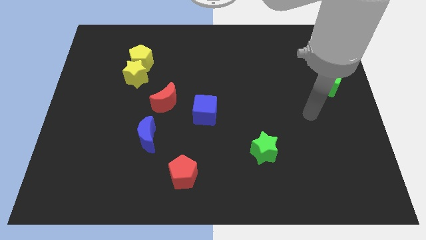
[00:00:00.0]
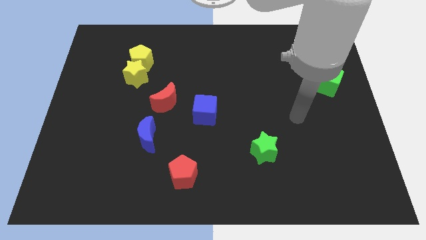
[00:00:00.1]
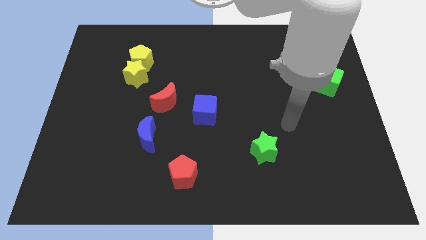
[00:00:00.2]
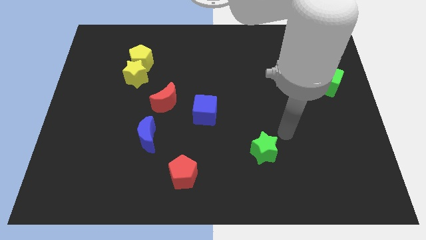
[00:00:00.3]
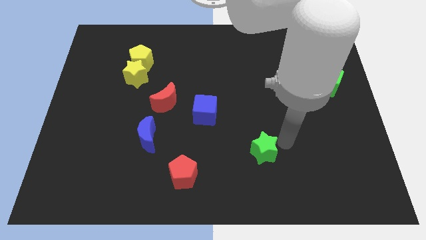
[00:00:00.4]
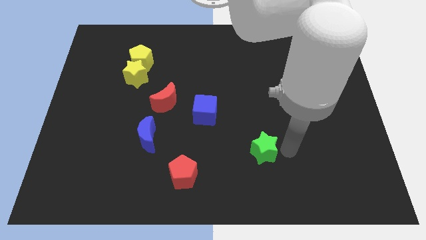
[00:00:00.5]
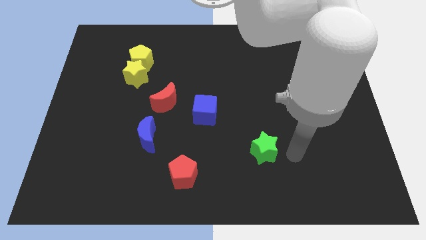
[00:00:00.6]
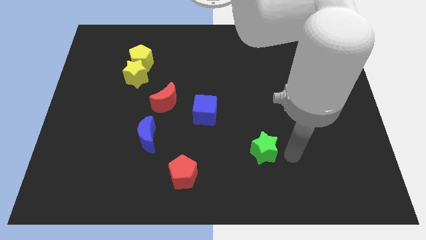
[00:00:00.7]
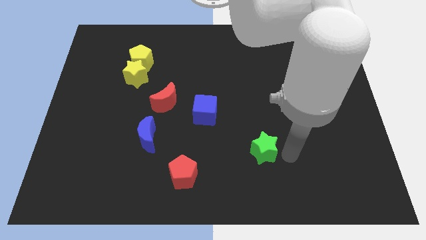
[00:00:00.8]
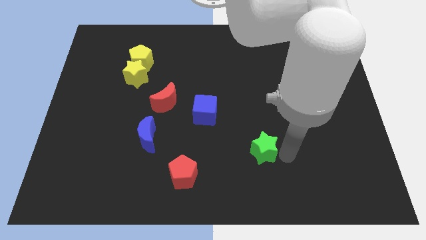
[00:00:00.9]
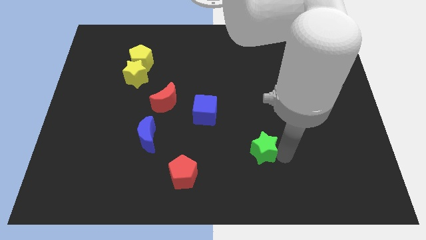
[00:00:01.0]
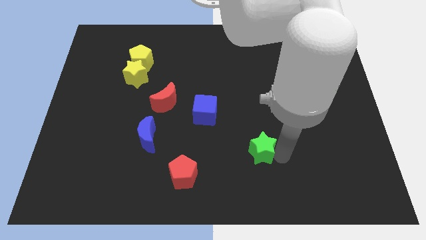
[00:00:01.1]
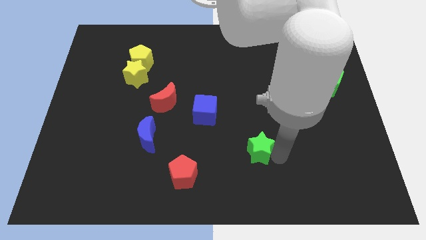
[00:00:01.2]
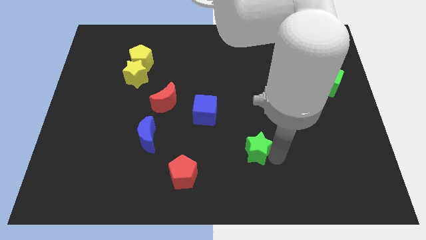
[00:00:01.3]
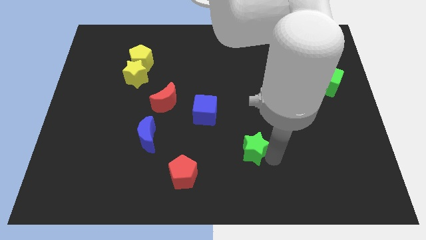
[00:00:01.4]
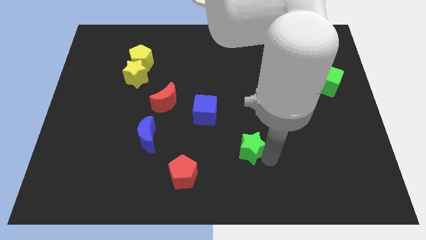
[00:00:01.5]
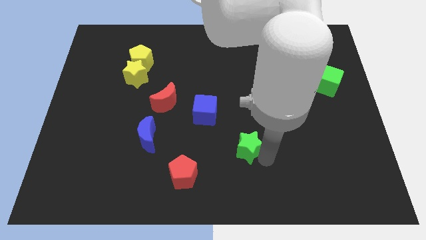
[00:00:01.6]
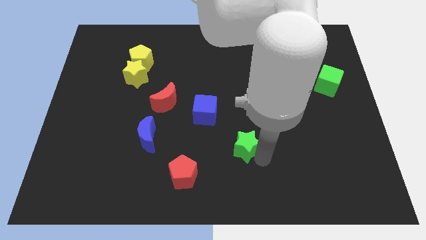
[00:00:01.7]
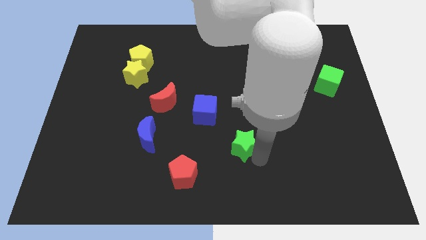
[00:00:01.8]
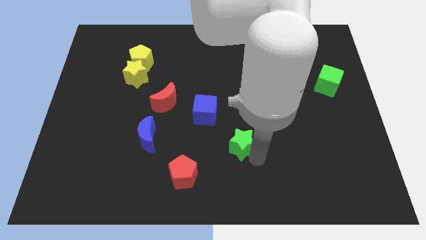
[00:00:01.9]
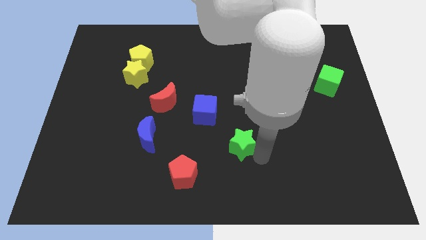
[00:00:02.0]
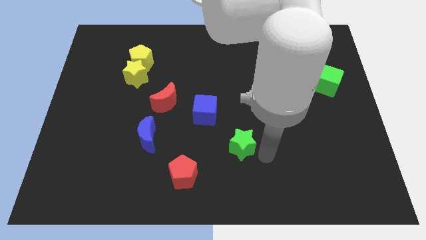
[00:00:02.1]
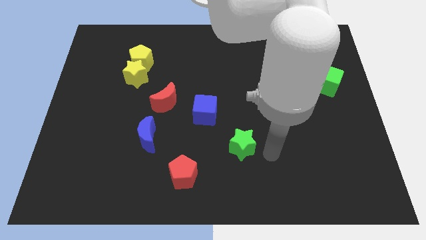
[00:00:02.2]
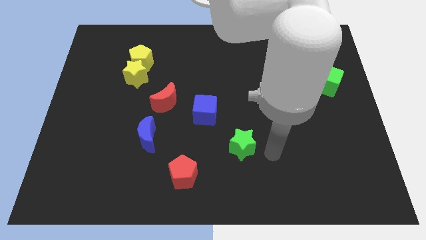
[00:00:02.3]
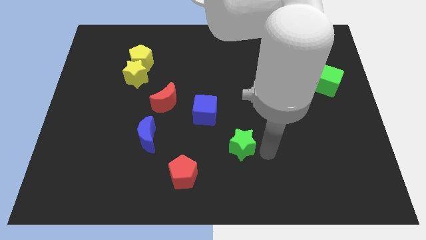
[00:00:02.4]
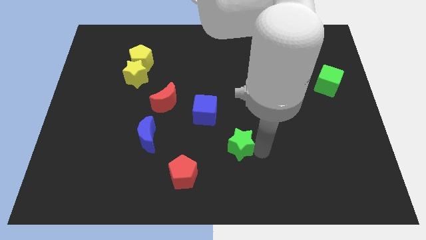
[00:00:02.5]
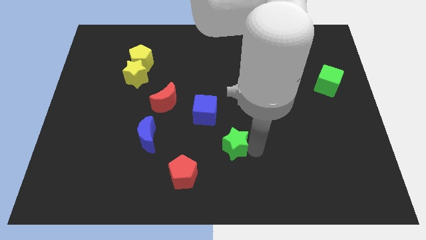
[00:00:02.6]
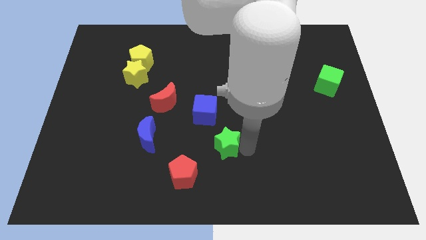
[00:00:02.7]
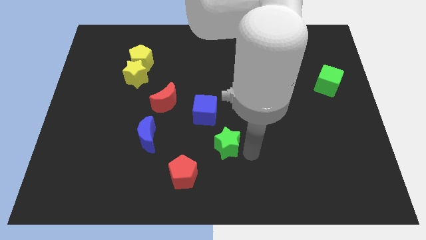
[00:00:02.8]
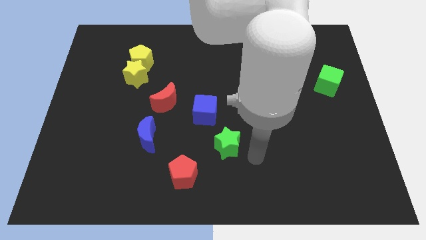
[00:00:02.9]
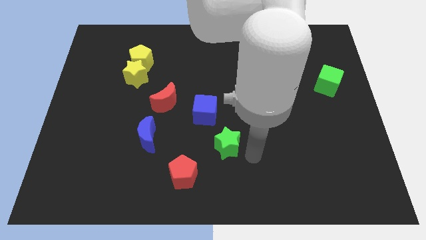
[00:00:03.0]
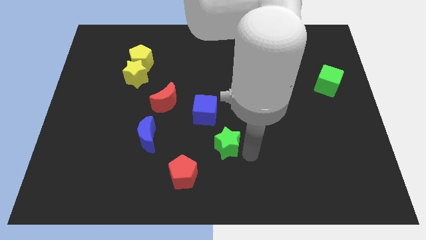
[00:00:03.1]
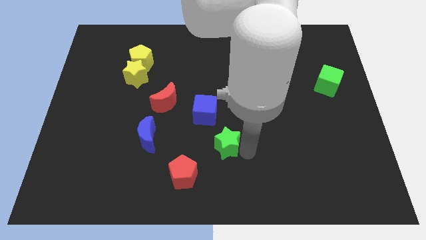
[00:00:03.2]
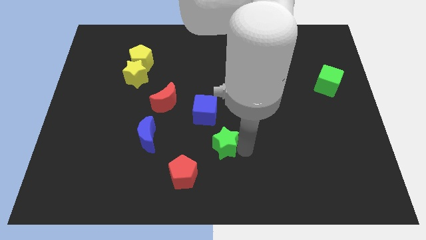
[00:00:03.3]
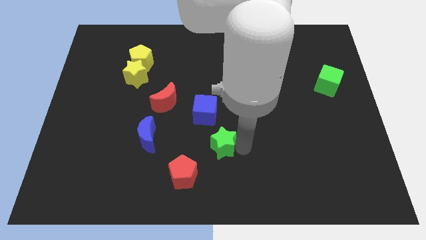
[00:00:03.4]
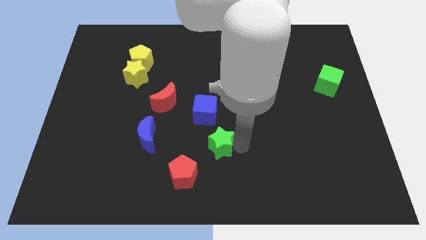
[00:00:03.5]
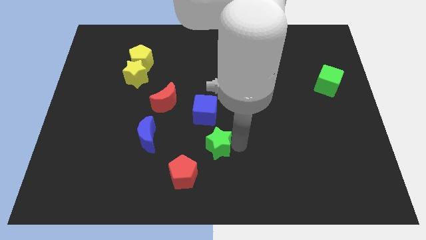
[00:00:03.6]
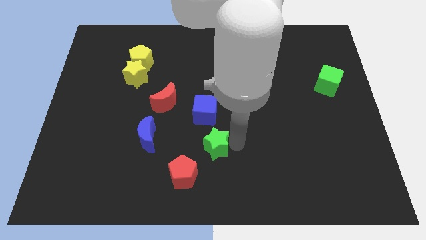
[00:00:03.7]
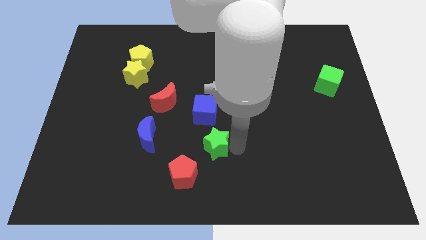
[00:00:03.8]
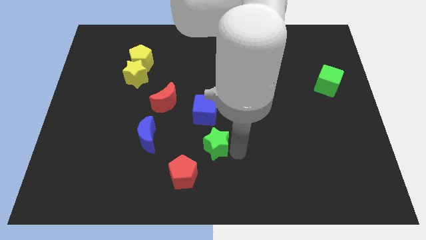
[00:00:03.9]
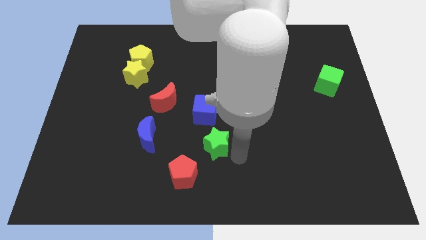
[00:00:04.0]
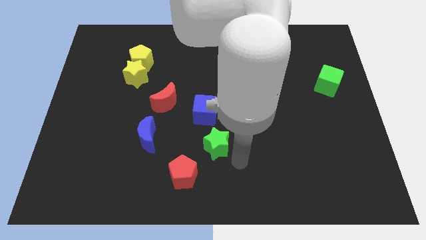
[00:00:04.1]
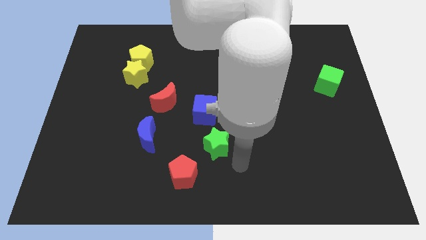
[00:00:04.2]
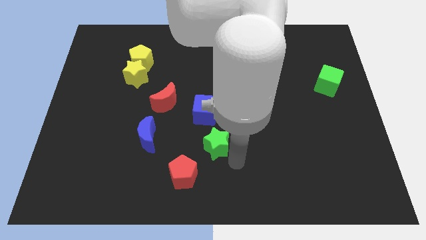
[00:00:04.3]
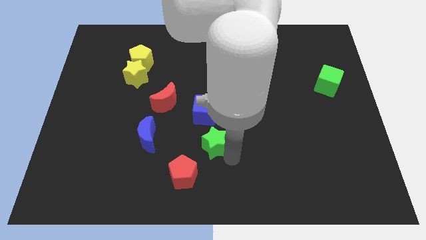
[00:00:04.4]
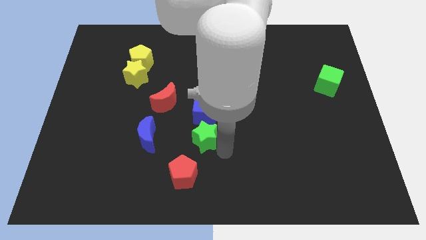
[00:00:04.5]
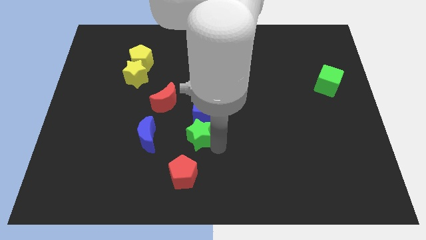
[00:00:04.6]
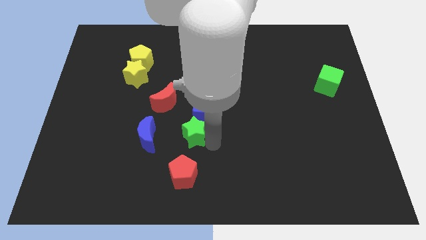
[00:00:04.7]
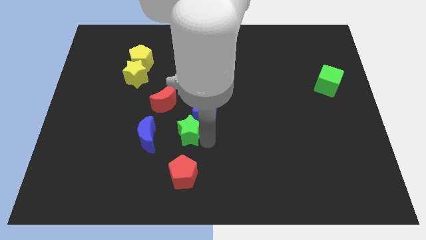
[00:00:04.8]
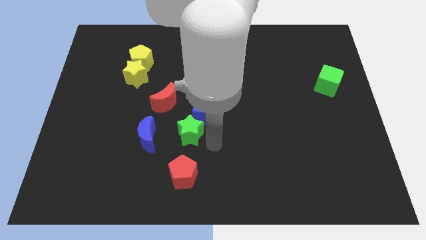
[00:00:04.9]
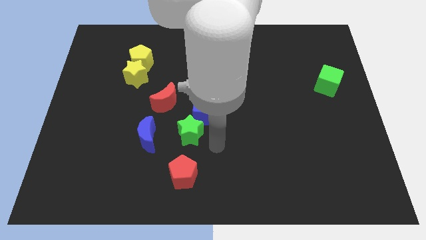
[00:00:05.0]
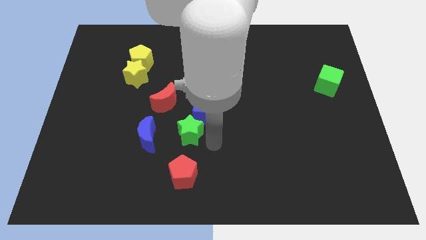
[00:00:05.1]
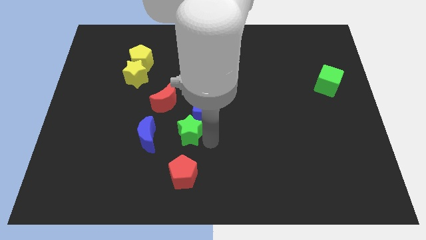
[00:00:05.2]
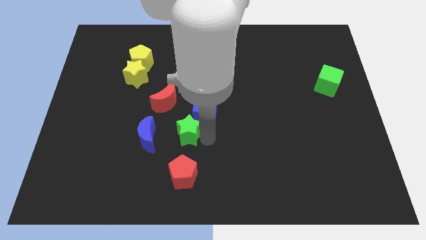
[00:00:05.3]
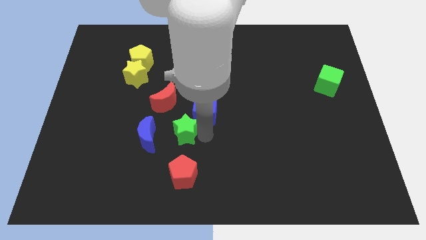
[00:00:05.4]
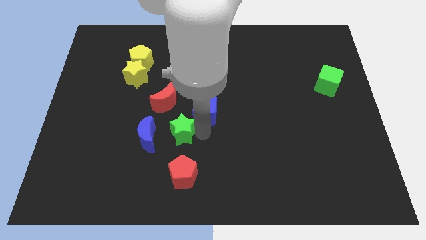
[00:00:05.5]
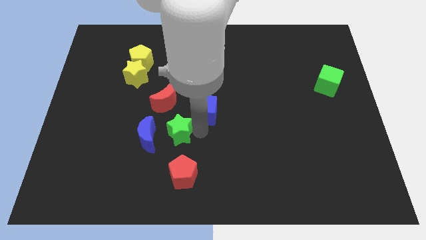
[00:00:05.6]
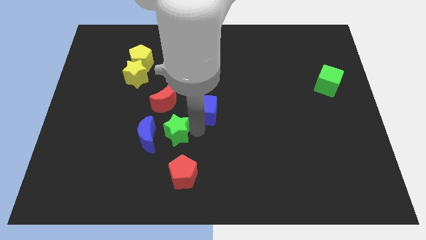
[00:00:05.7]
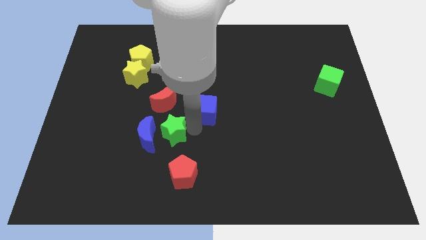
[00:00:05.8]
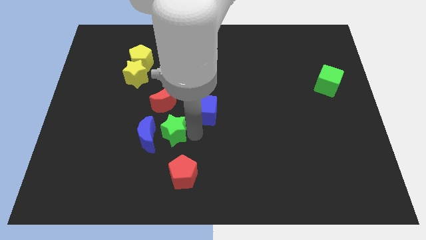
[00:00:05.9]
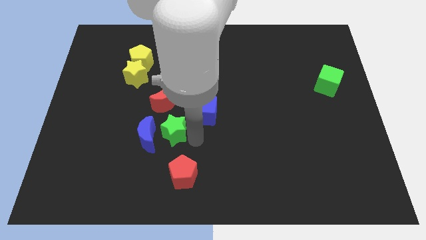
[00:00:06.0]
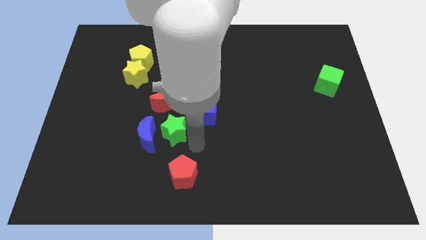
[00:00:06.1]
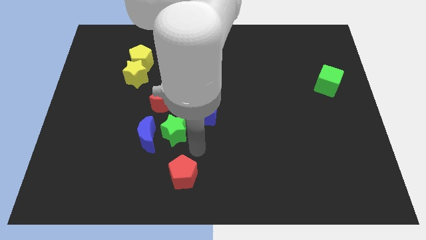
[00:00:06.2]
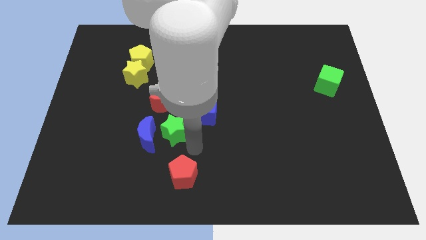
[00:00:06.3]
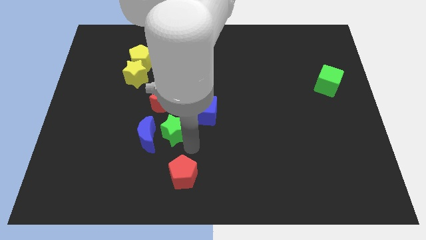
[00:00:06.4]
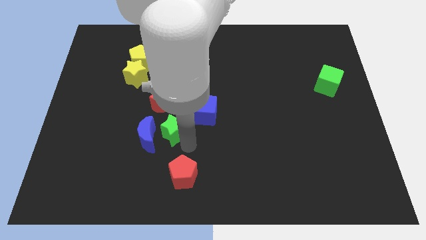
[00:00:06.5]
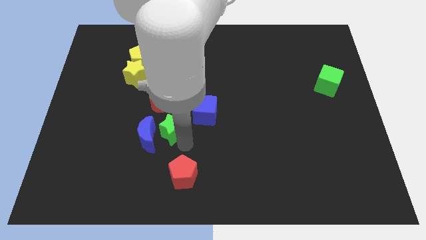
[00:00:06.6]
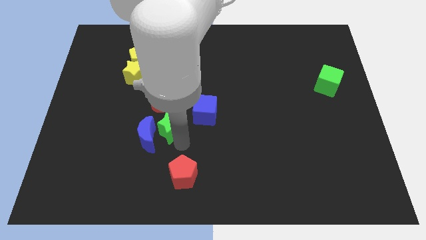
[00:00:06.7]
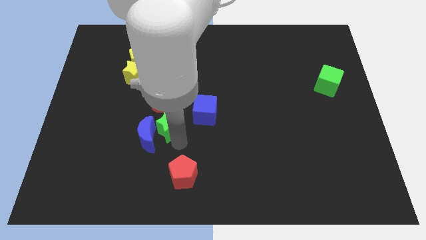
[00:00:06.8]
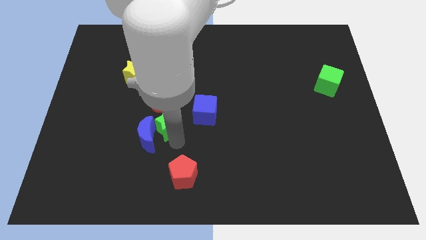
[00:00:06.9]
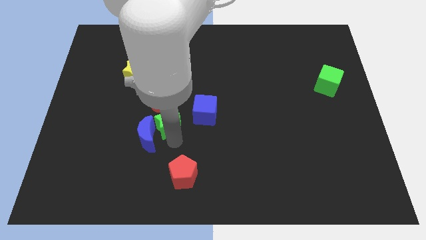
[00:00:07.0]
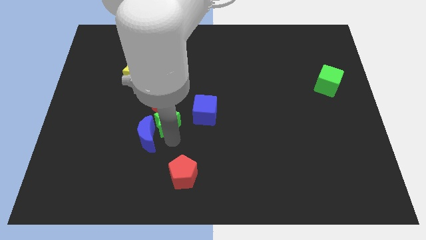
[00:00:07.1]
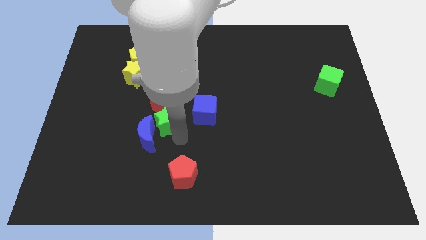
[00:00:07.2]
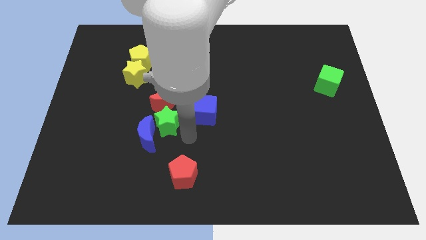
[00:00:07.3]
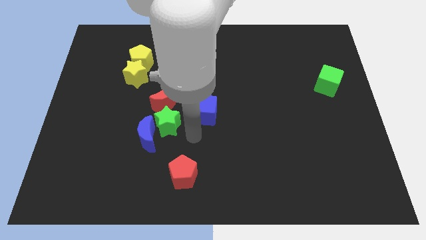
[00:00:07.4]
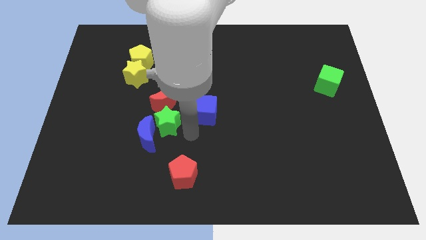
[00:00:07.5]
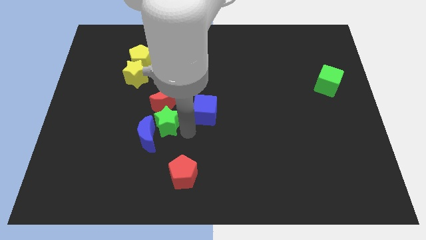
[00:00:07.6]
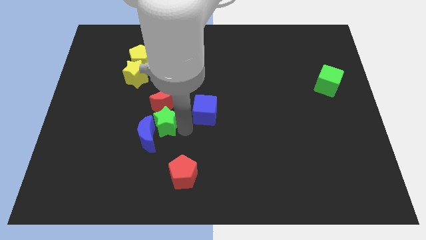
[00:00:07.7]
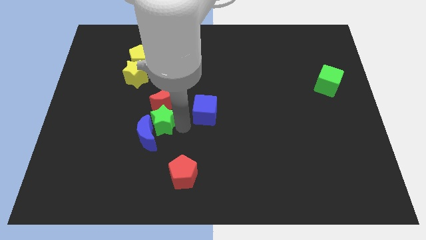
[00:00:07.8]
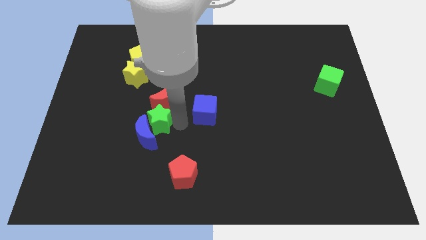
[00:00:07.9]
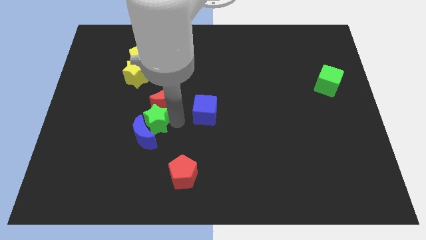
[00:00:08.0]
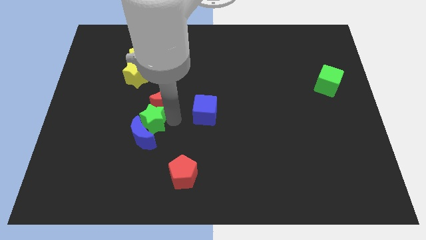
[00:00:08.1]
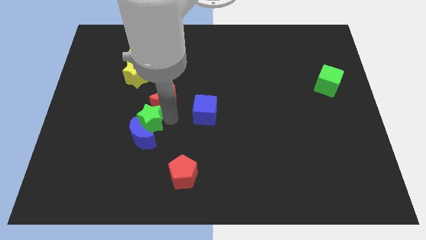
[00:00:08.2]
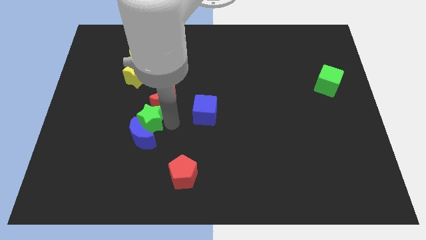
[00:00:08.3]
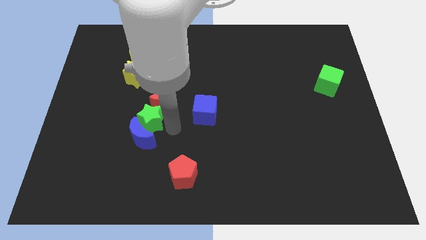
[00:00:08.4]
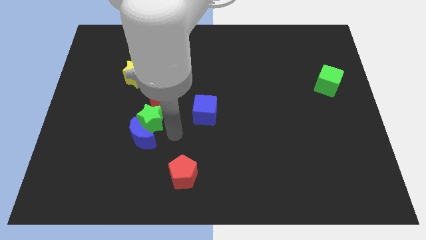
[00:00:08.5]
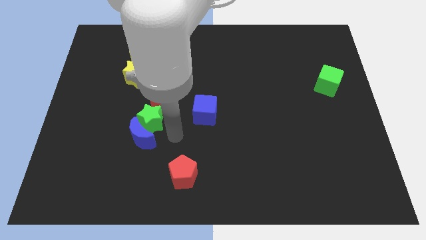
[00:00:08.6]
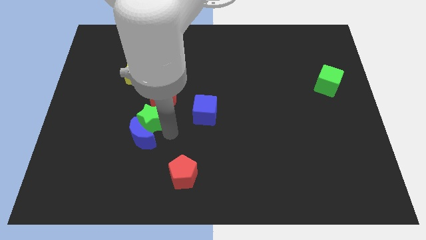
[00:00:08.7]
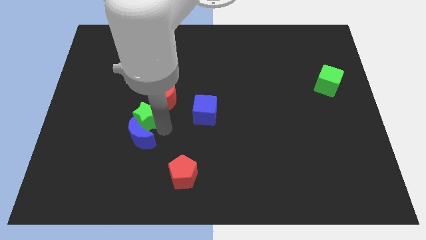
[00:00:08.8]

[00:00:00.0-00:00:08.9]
push the green star to the bottom side of the yellow star
